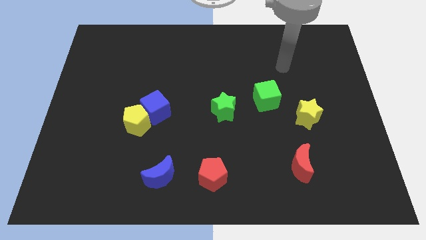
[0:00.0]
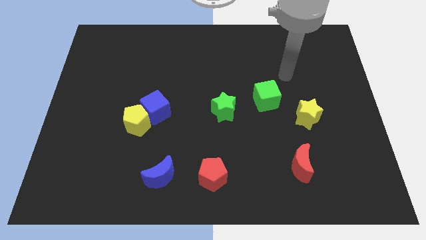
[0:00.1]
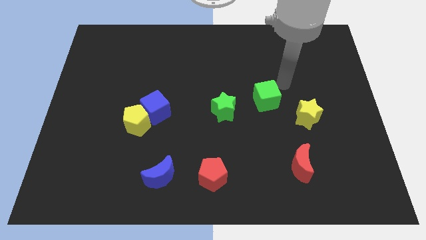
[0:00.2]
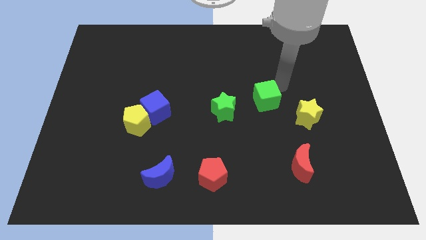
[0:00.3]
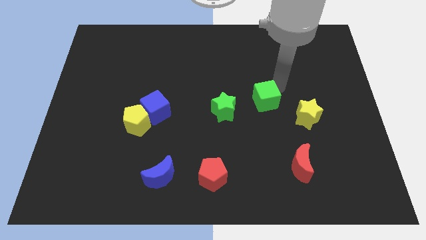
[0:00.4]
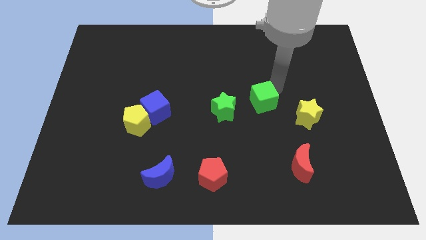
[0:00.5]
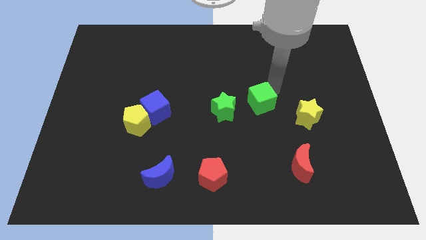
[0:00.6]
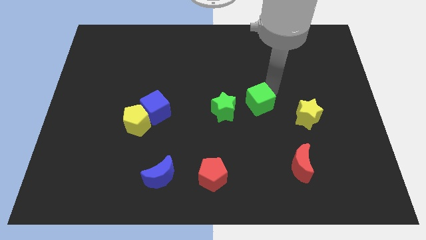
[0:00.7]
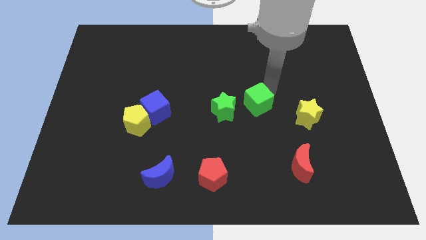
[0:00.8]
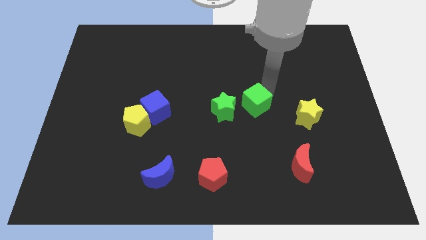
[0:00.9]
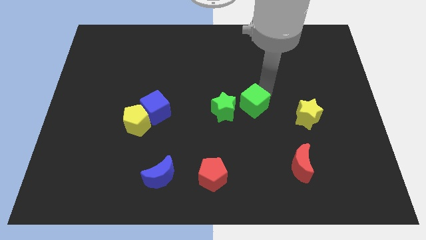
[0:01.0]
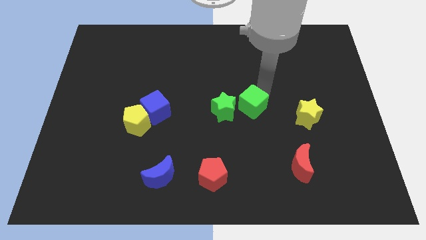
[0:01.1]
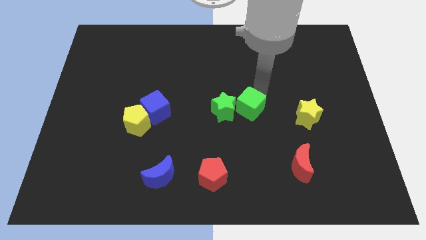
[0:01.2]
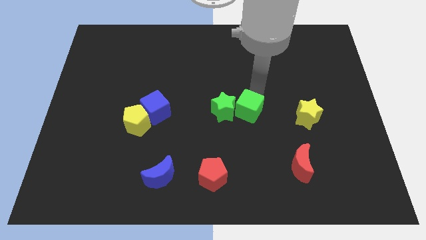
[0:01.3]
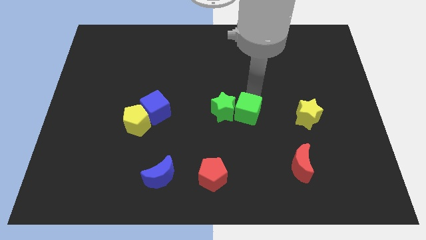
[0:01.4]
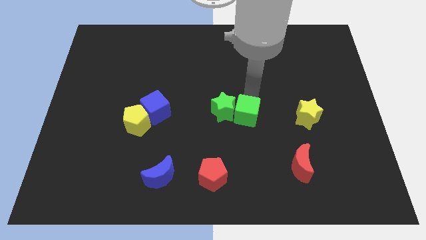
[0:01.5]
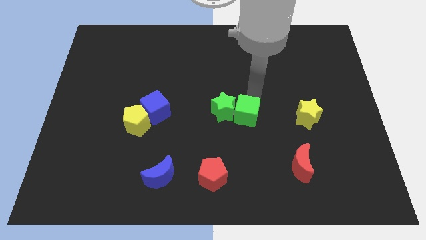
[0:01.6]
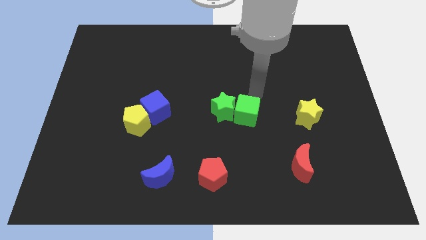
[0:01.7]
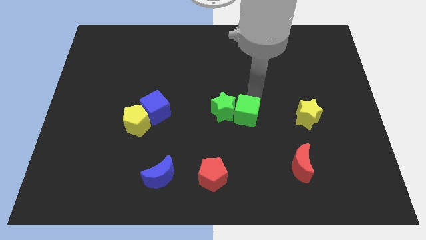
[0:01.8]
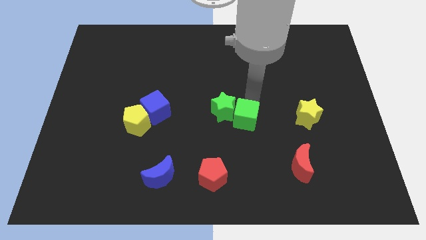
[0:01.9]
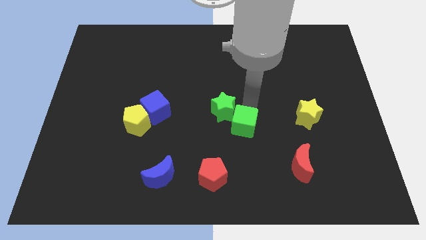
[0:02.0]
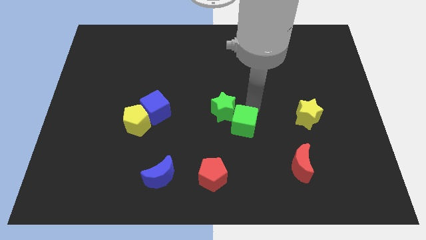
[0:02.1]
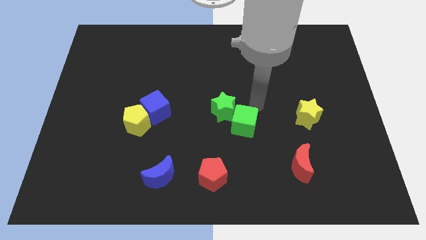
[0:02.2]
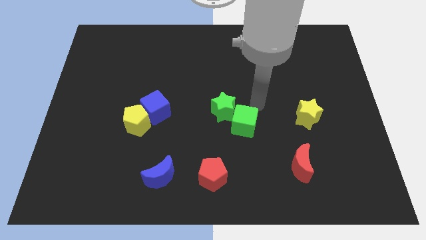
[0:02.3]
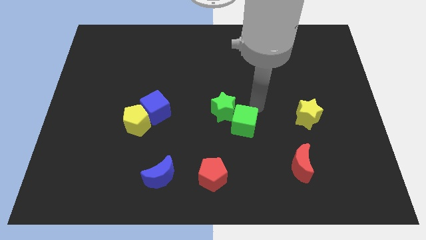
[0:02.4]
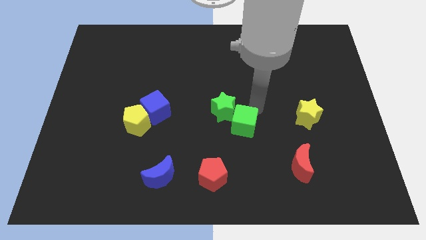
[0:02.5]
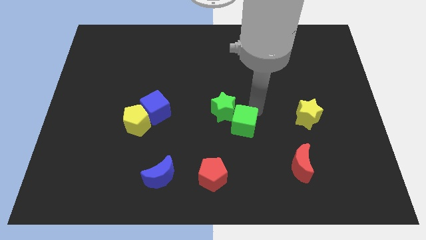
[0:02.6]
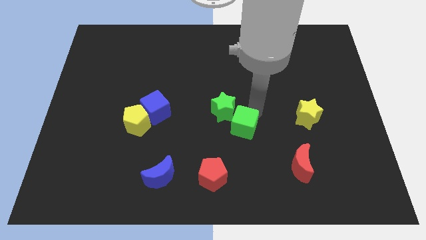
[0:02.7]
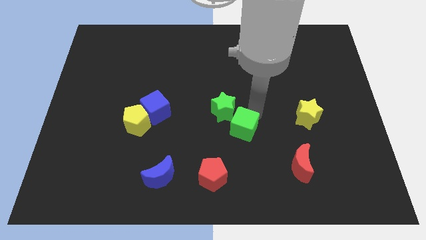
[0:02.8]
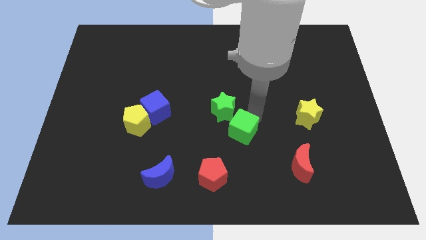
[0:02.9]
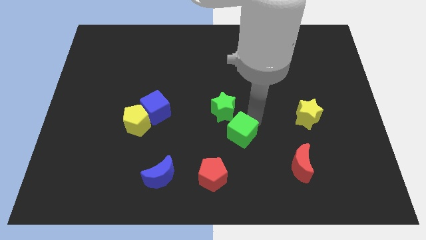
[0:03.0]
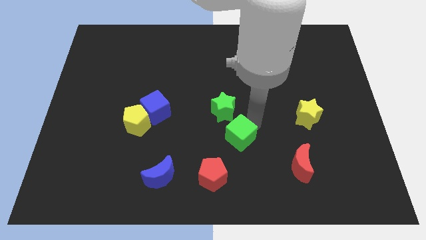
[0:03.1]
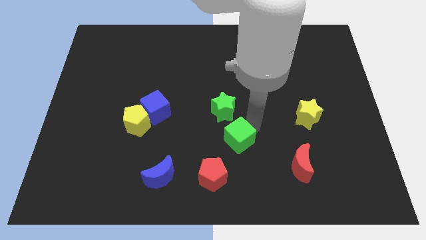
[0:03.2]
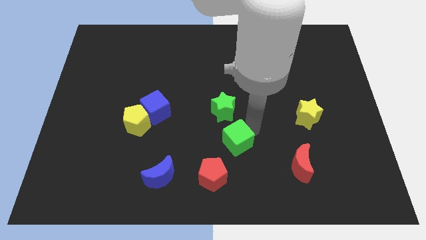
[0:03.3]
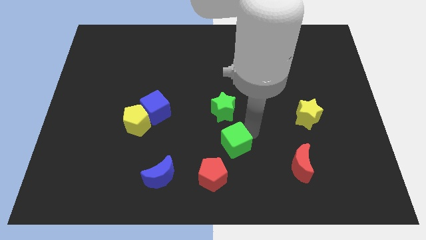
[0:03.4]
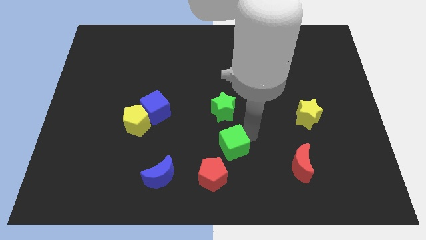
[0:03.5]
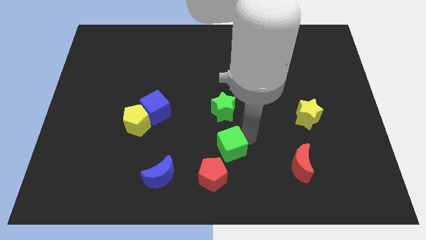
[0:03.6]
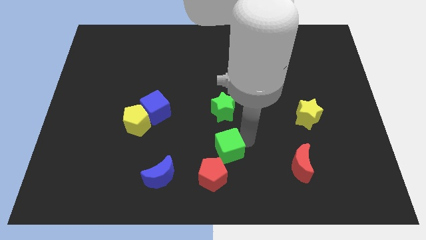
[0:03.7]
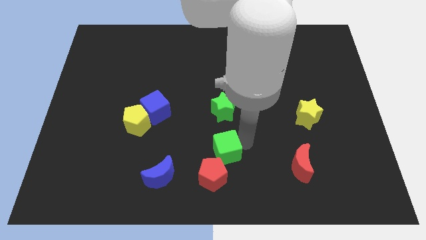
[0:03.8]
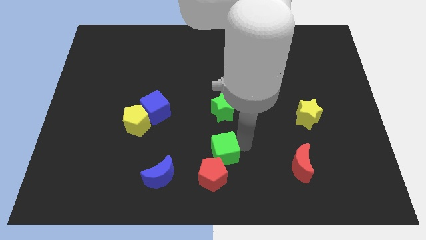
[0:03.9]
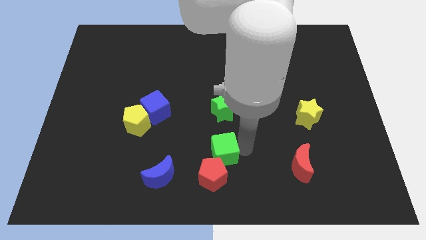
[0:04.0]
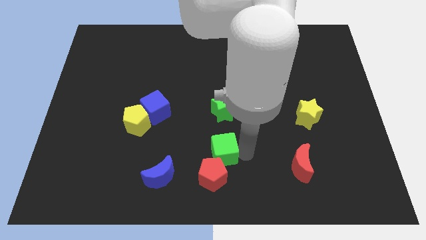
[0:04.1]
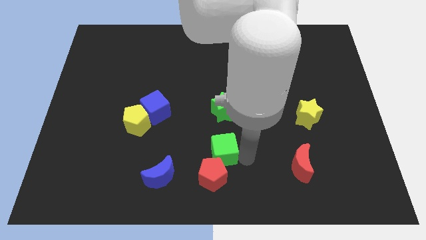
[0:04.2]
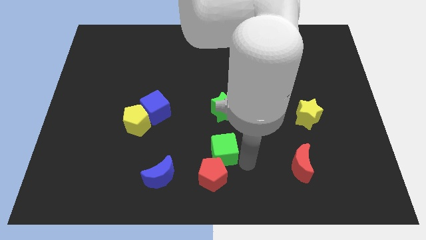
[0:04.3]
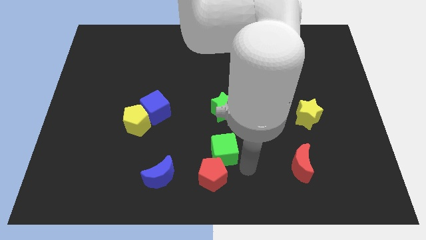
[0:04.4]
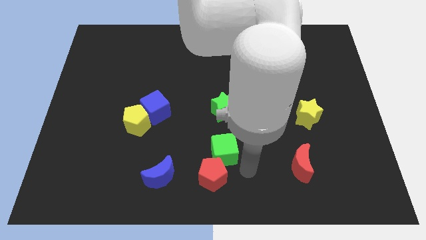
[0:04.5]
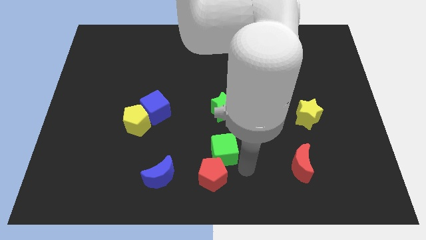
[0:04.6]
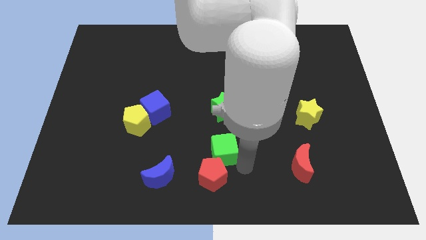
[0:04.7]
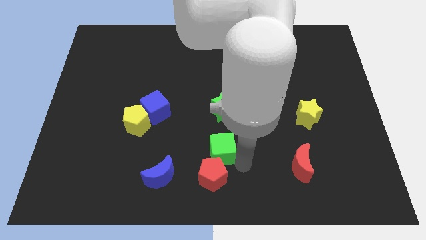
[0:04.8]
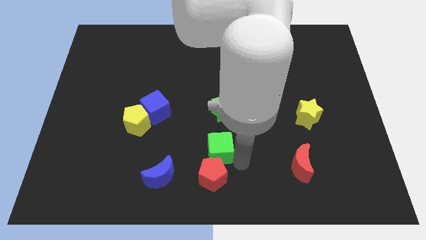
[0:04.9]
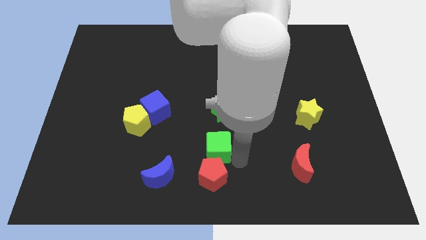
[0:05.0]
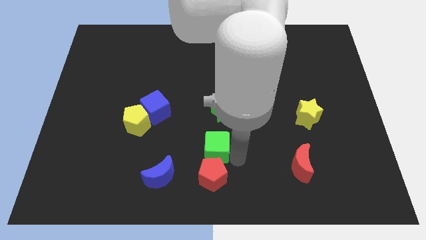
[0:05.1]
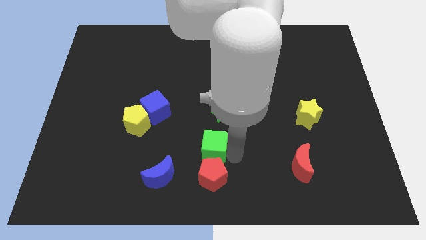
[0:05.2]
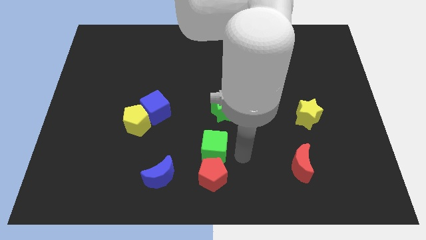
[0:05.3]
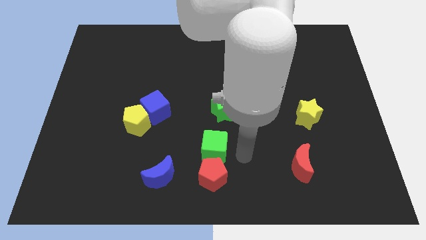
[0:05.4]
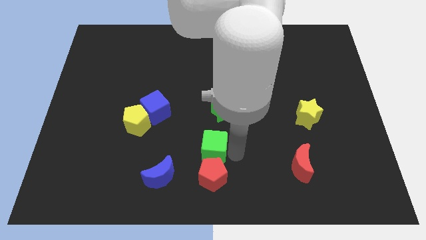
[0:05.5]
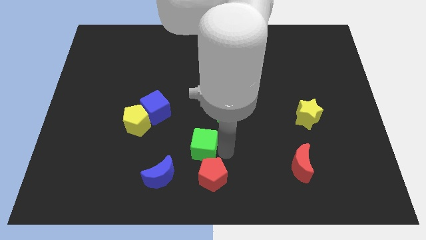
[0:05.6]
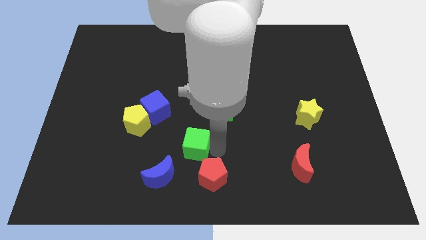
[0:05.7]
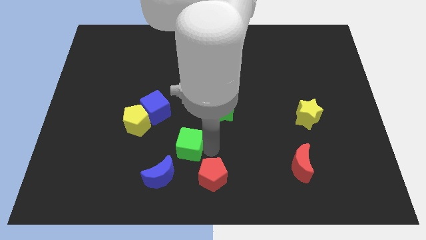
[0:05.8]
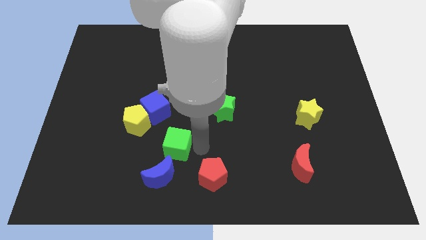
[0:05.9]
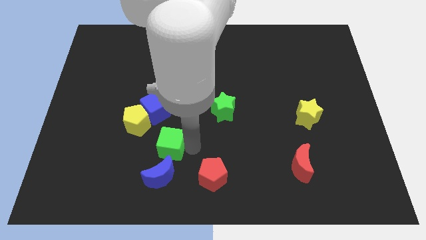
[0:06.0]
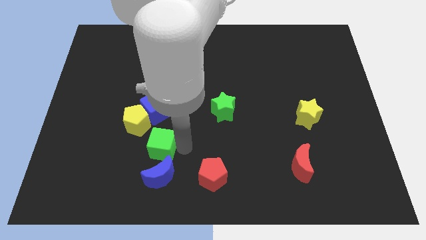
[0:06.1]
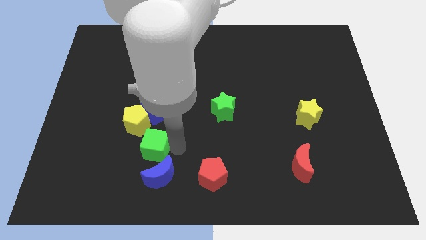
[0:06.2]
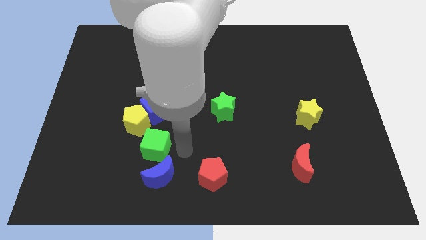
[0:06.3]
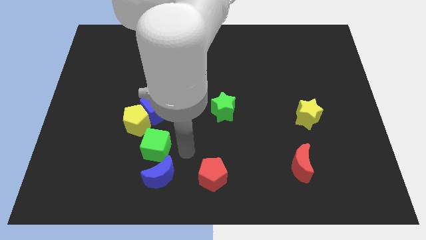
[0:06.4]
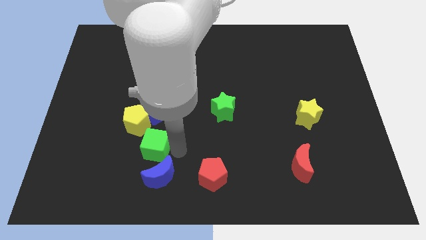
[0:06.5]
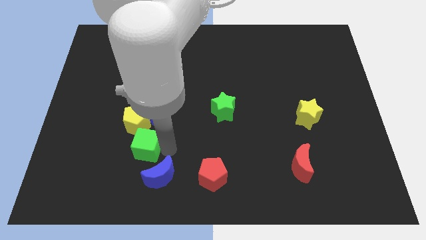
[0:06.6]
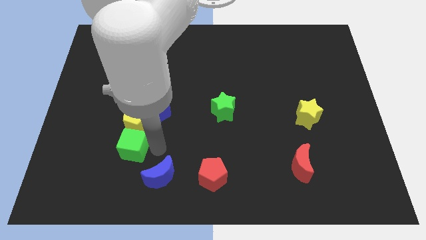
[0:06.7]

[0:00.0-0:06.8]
slide the green cube to the bottom left of the yellow pentagon

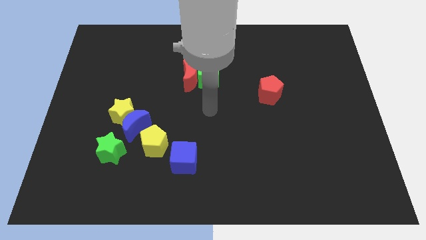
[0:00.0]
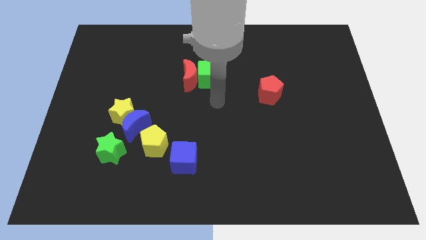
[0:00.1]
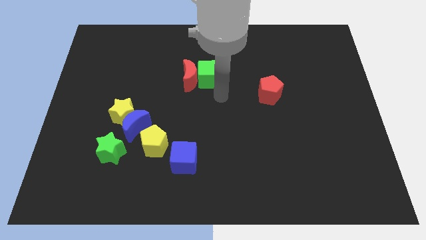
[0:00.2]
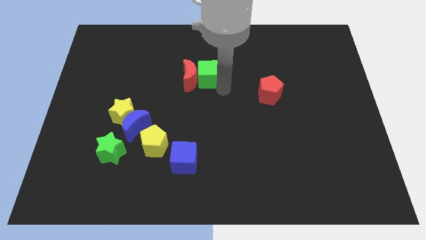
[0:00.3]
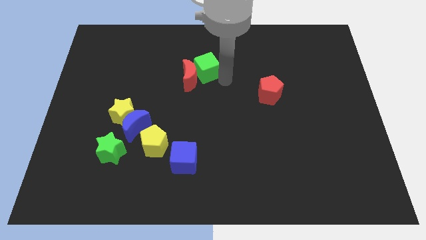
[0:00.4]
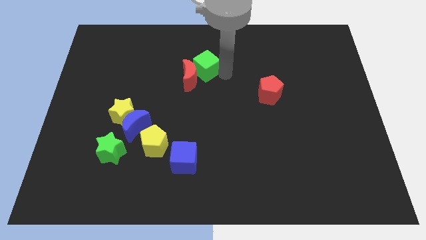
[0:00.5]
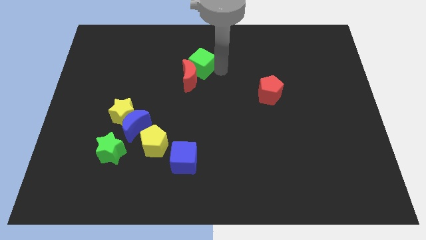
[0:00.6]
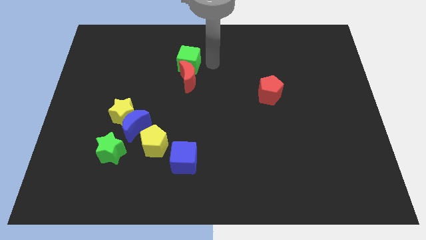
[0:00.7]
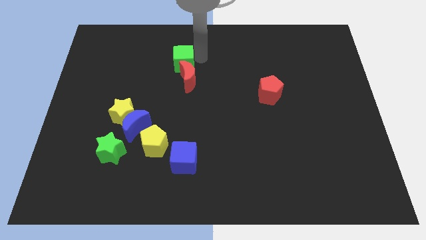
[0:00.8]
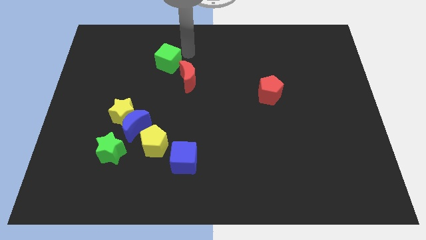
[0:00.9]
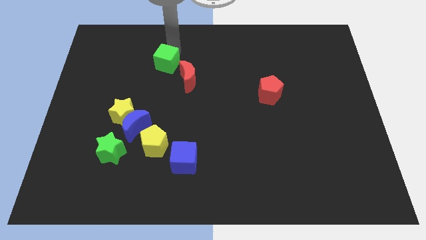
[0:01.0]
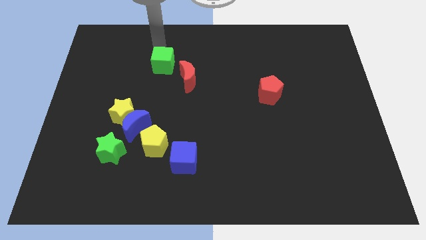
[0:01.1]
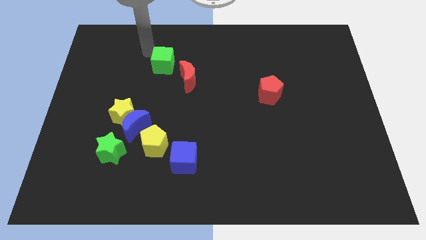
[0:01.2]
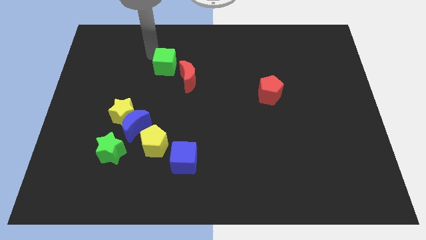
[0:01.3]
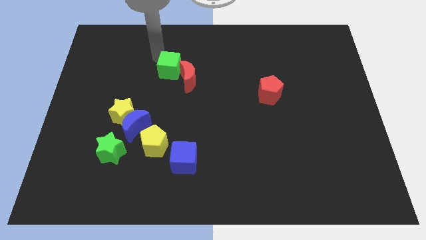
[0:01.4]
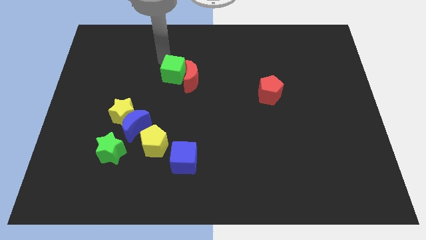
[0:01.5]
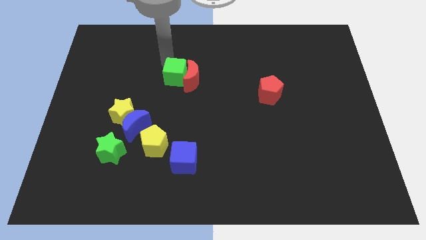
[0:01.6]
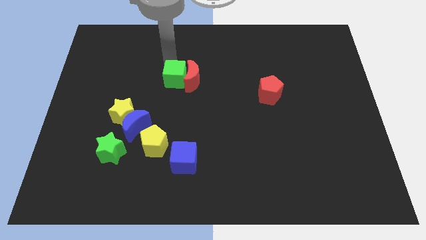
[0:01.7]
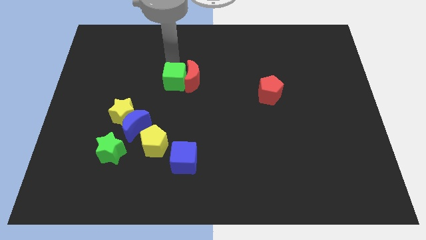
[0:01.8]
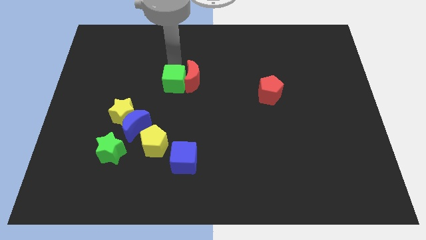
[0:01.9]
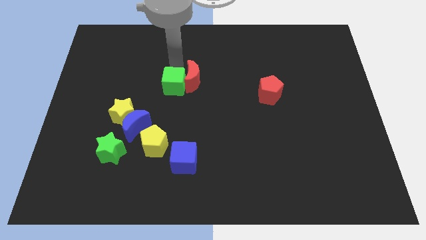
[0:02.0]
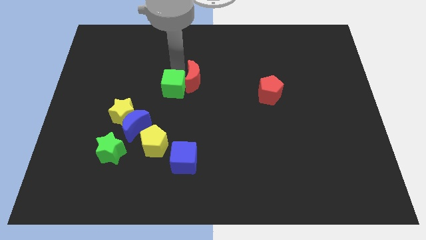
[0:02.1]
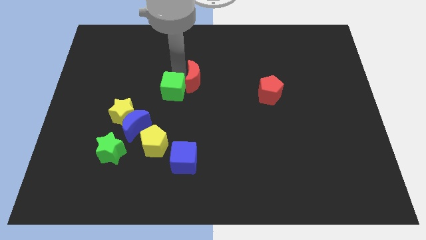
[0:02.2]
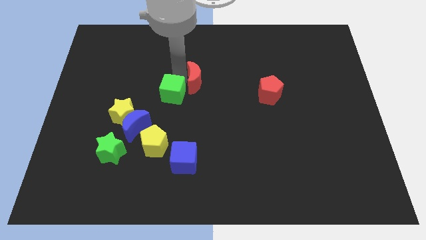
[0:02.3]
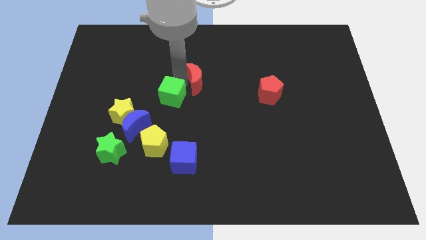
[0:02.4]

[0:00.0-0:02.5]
push the green cube to the top right side of the yellow star
